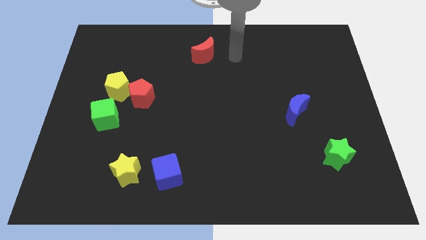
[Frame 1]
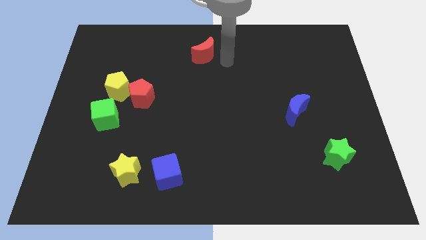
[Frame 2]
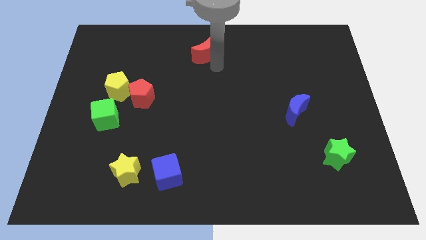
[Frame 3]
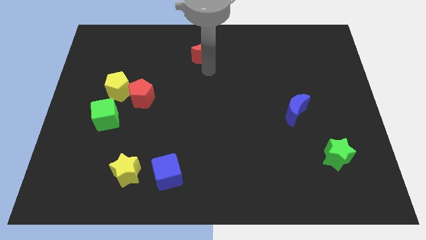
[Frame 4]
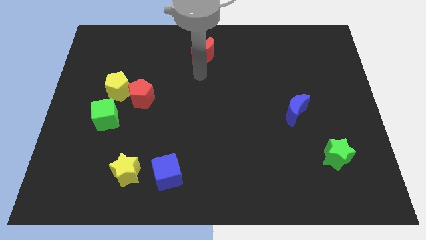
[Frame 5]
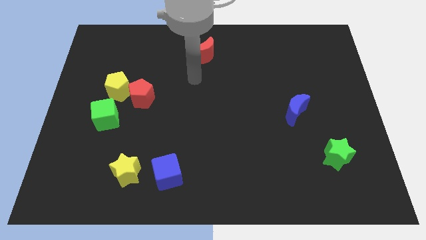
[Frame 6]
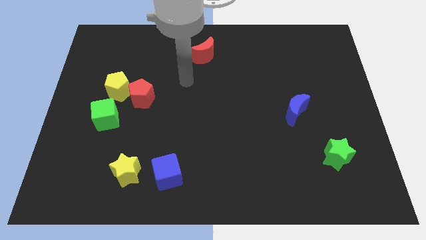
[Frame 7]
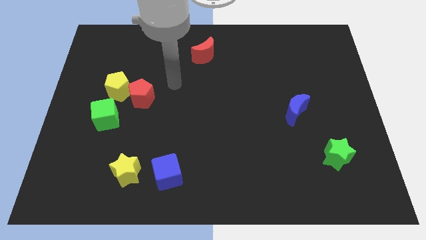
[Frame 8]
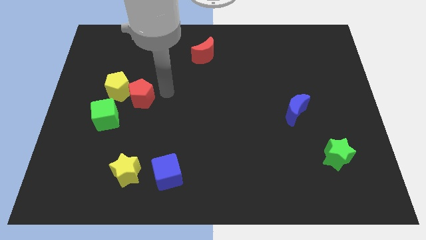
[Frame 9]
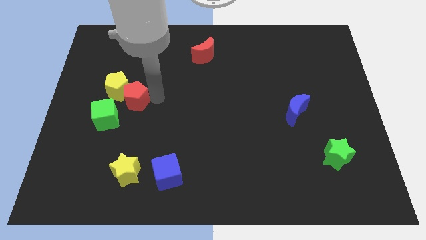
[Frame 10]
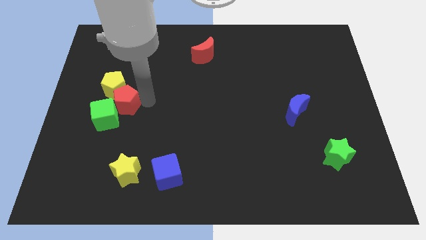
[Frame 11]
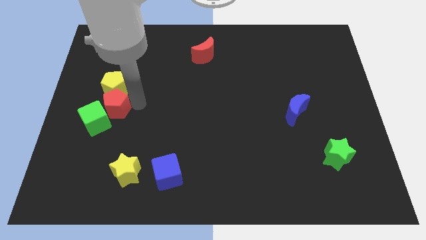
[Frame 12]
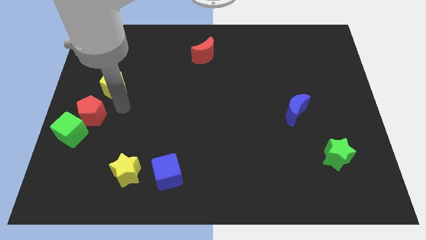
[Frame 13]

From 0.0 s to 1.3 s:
move the yellow pentagon away from the red pentagon and green cube

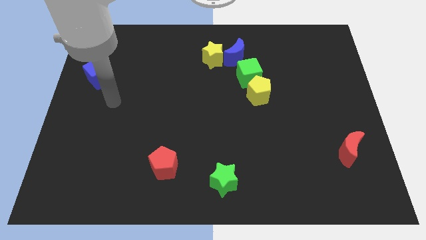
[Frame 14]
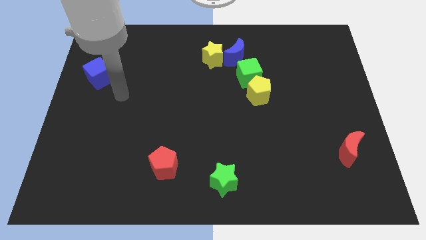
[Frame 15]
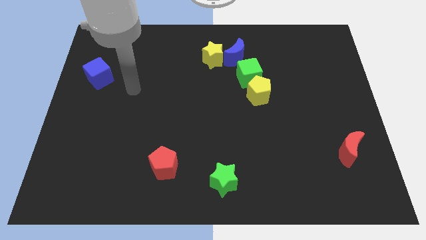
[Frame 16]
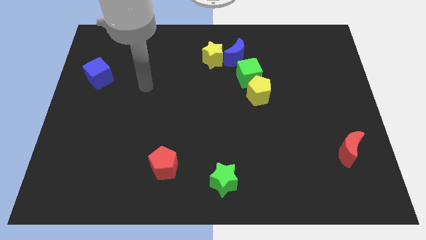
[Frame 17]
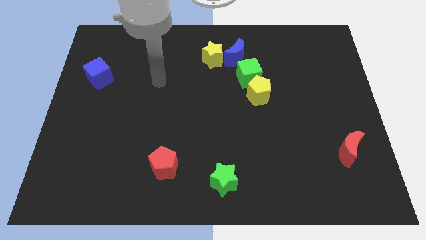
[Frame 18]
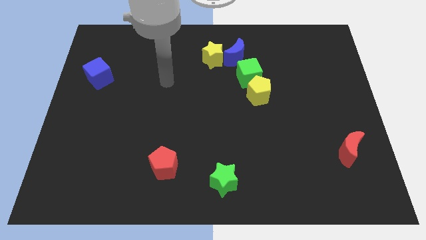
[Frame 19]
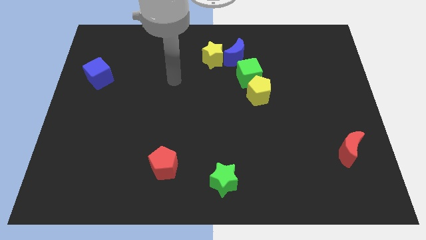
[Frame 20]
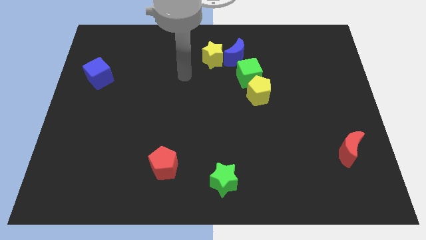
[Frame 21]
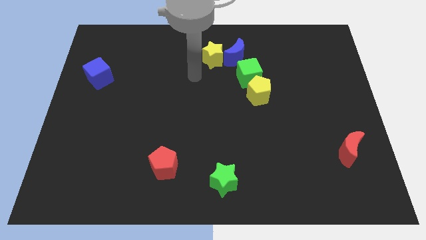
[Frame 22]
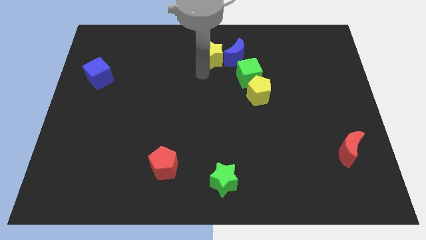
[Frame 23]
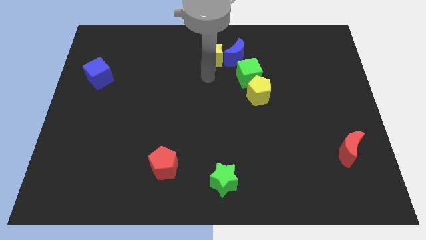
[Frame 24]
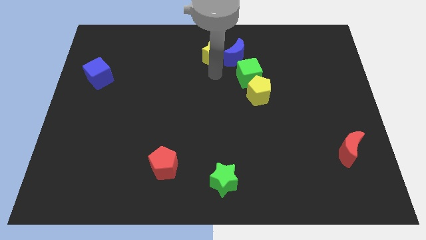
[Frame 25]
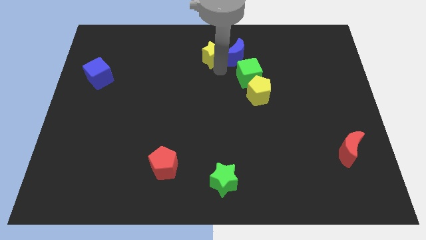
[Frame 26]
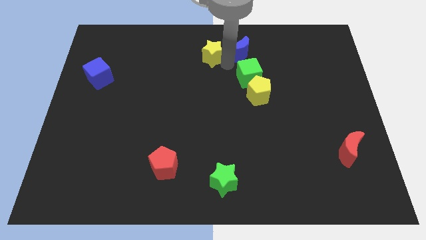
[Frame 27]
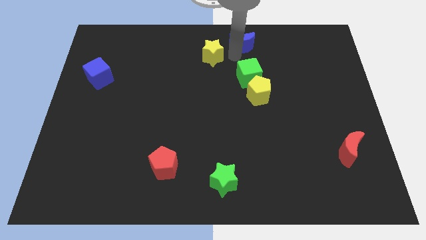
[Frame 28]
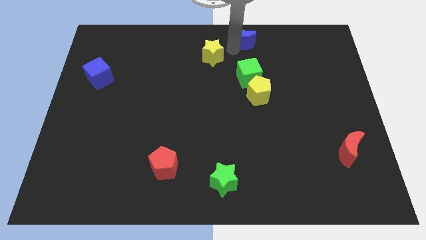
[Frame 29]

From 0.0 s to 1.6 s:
pull the yellow star apart from the blue moon

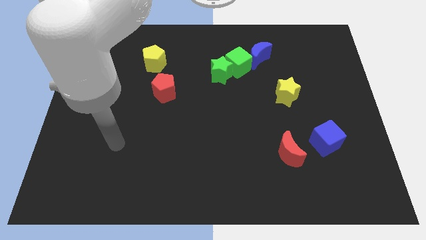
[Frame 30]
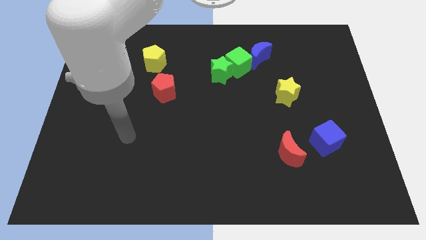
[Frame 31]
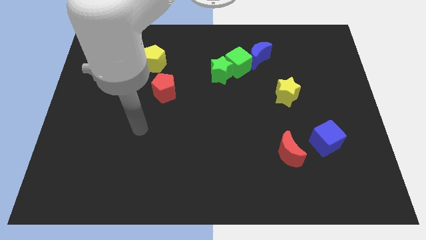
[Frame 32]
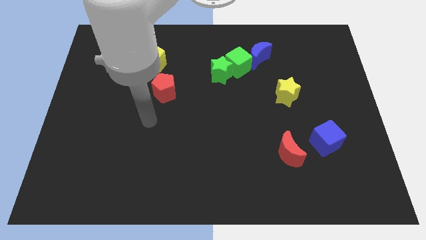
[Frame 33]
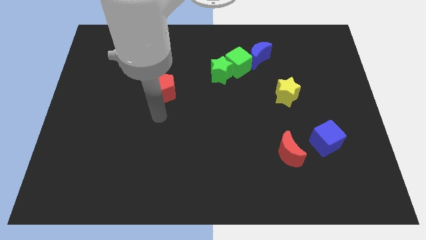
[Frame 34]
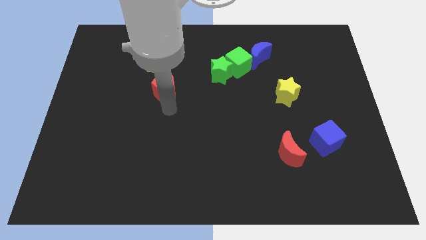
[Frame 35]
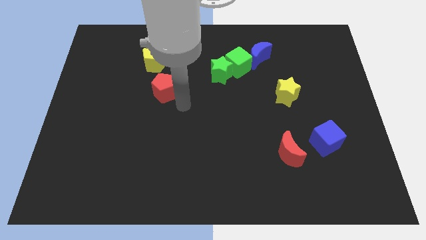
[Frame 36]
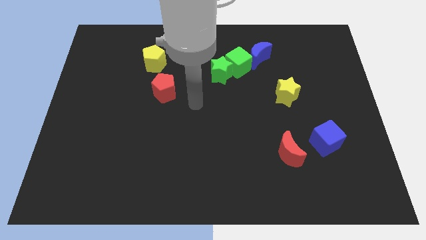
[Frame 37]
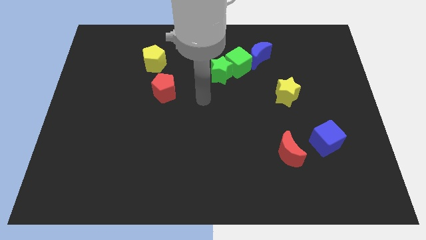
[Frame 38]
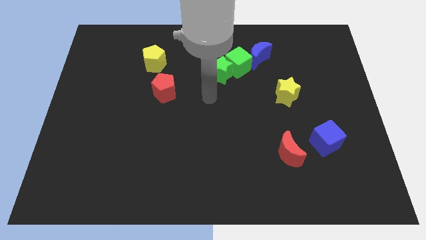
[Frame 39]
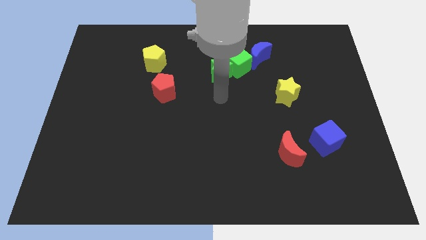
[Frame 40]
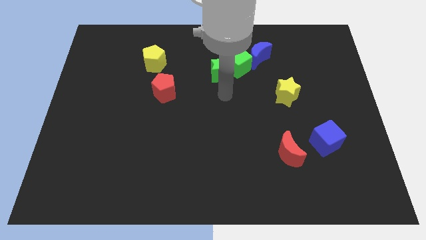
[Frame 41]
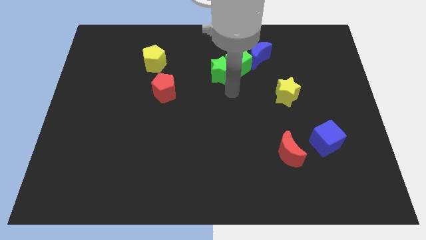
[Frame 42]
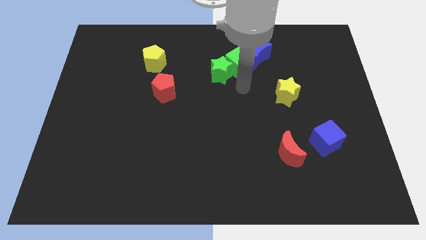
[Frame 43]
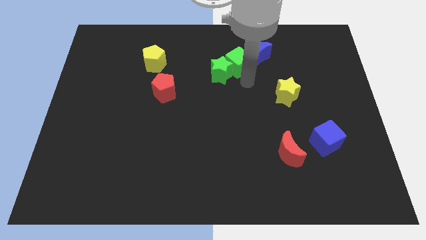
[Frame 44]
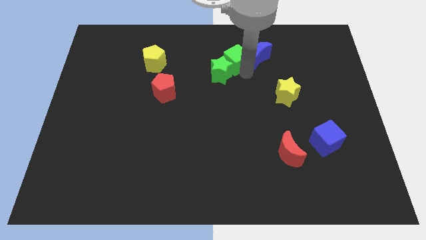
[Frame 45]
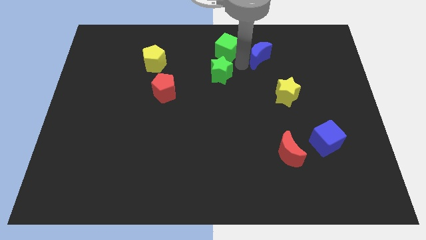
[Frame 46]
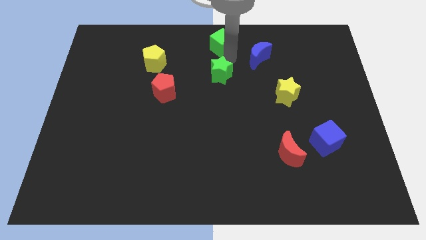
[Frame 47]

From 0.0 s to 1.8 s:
move the green star away from the green cube

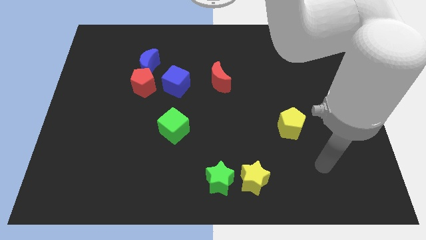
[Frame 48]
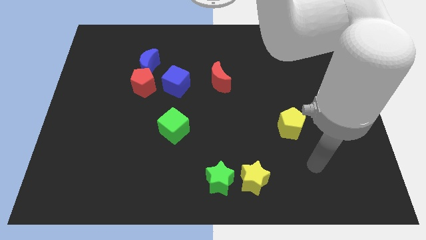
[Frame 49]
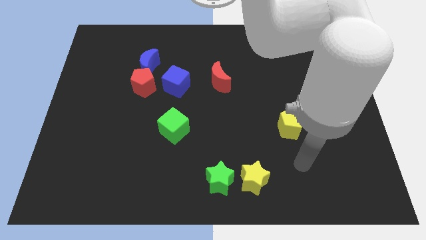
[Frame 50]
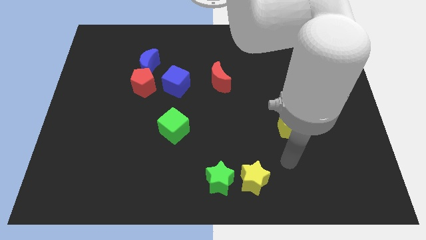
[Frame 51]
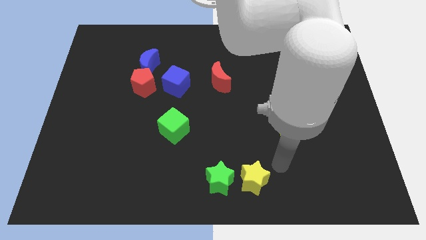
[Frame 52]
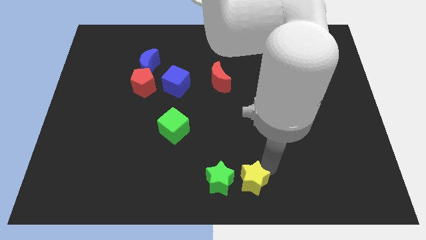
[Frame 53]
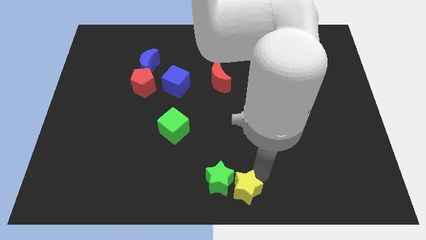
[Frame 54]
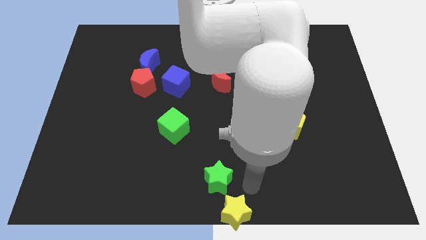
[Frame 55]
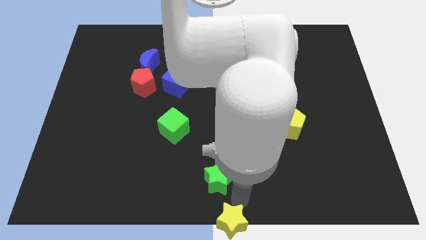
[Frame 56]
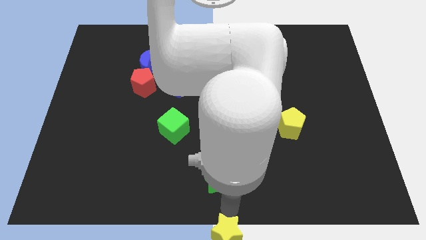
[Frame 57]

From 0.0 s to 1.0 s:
pull the green star apart from the yellow star

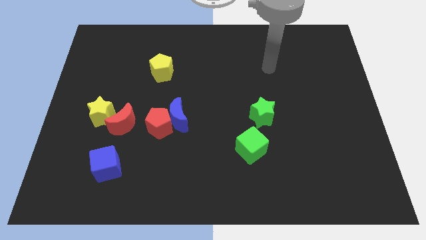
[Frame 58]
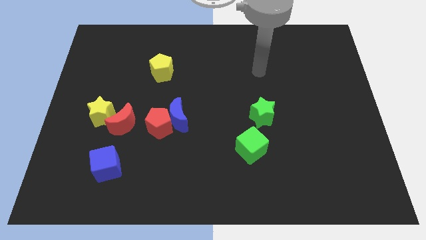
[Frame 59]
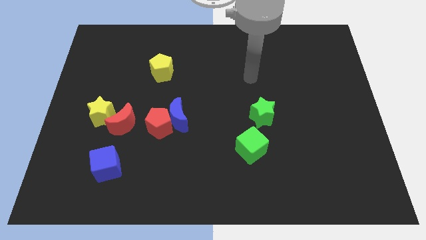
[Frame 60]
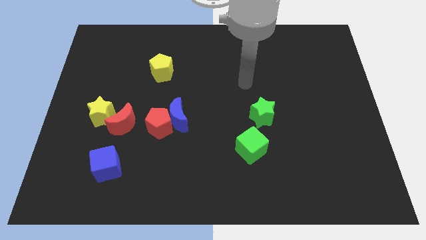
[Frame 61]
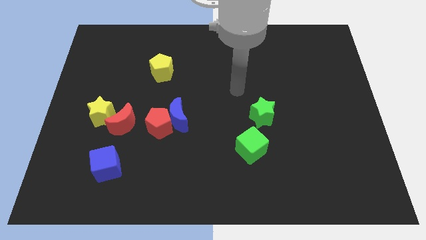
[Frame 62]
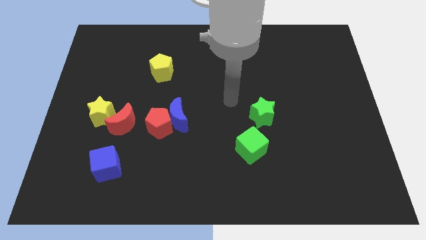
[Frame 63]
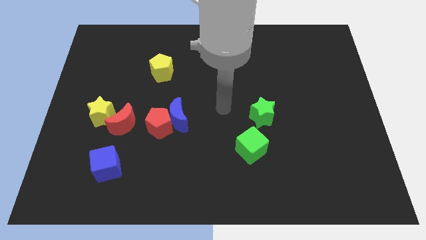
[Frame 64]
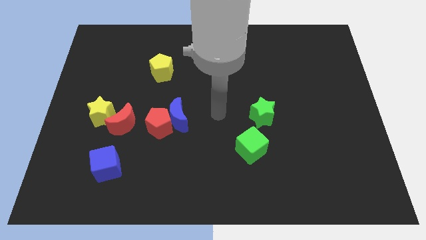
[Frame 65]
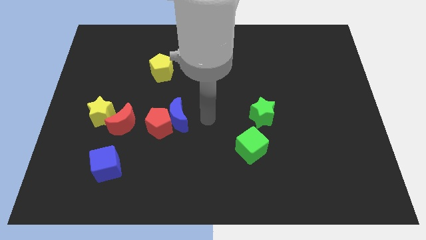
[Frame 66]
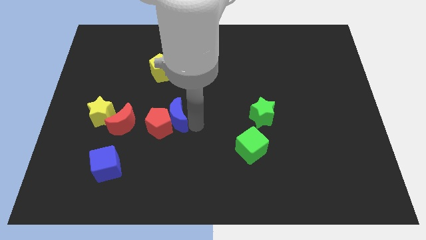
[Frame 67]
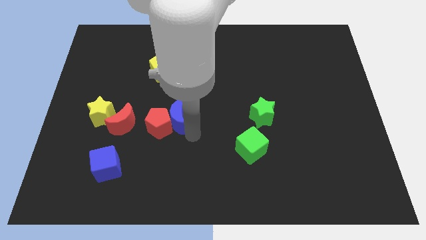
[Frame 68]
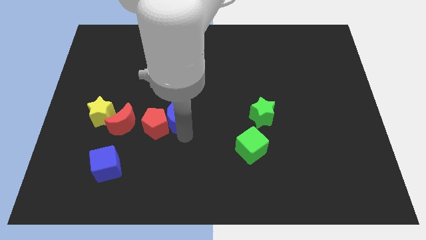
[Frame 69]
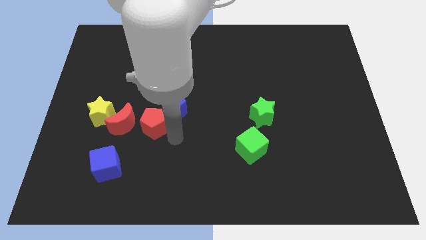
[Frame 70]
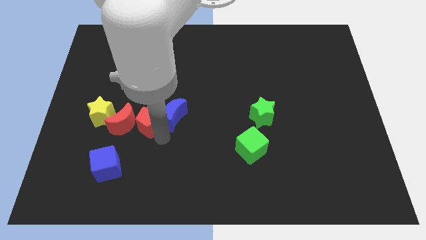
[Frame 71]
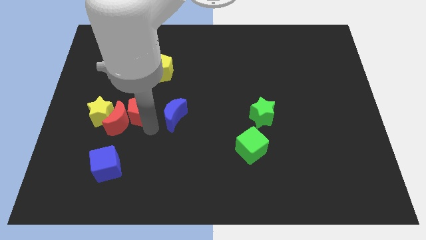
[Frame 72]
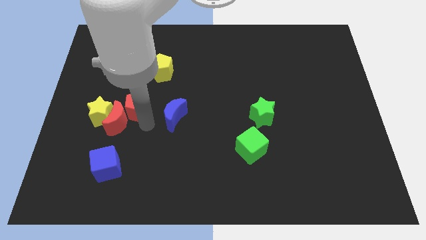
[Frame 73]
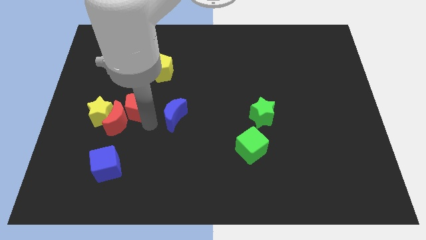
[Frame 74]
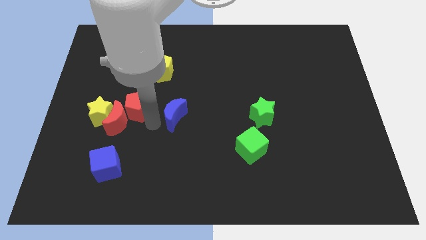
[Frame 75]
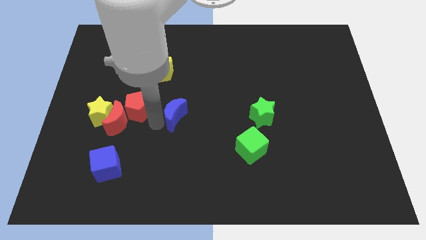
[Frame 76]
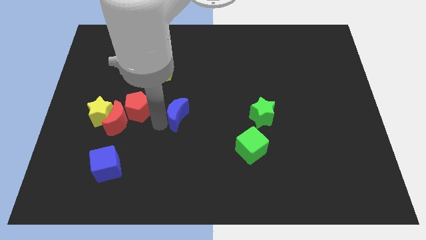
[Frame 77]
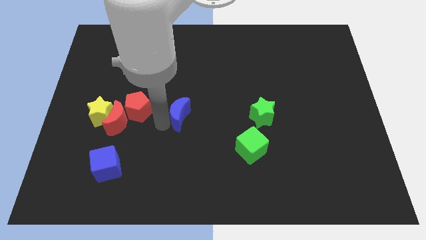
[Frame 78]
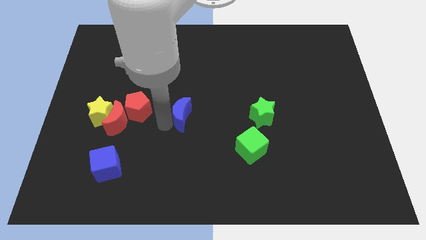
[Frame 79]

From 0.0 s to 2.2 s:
separate the blue moon from the red pentagon

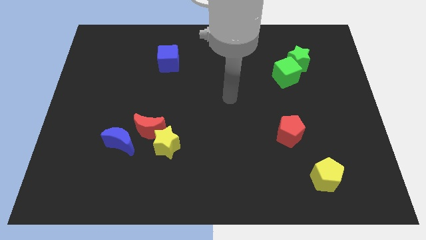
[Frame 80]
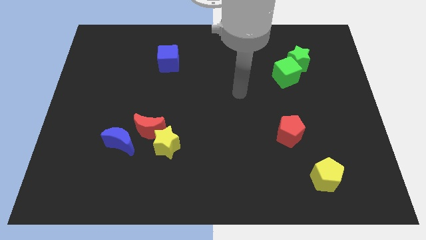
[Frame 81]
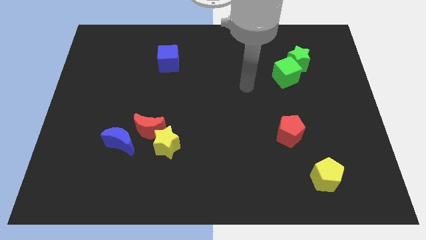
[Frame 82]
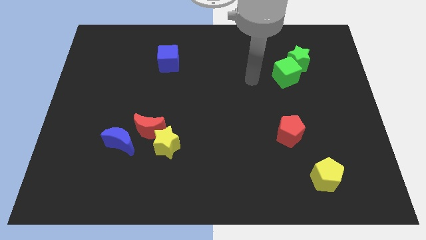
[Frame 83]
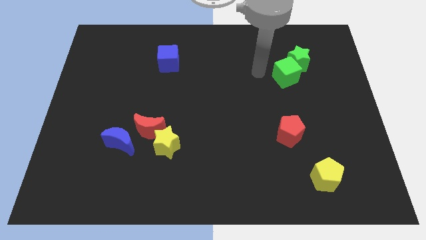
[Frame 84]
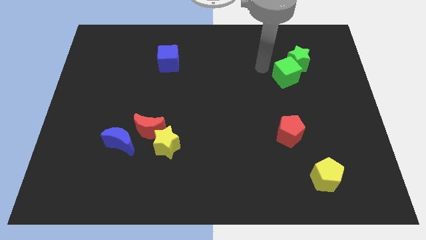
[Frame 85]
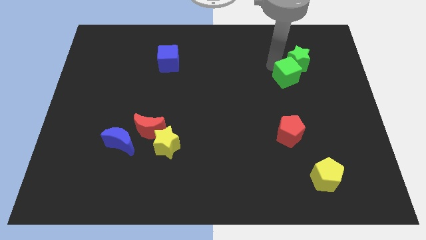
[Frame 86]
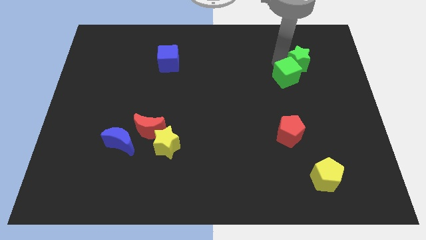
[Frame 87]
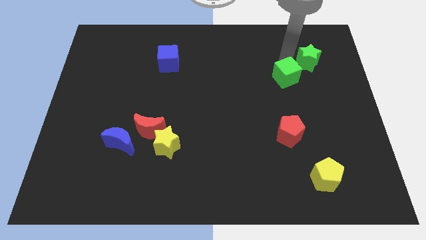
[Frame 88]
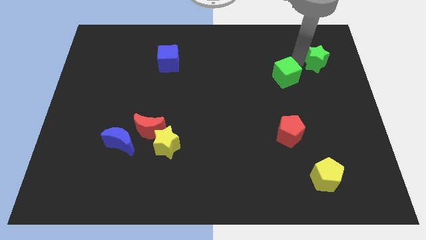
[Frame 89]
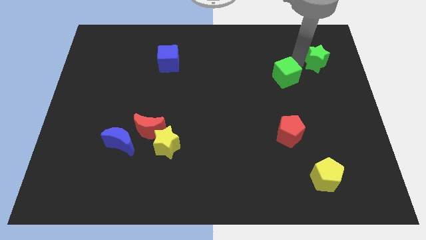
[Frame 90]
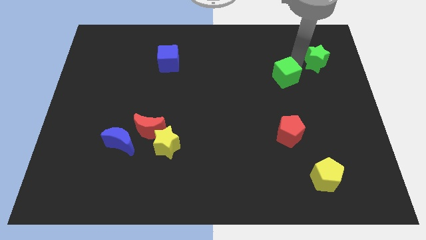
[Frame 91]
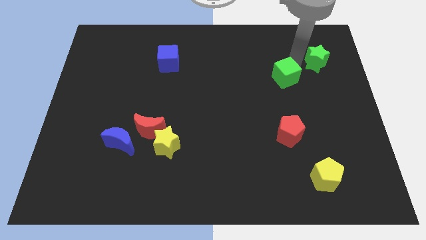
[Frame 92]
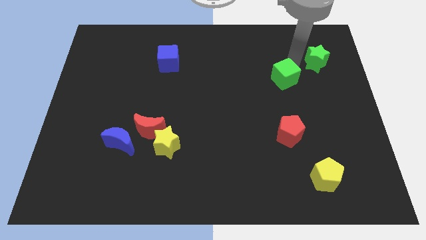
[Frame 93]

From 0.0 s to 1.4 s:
pull the green cube apart from the green star
